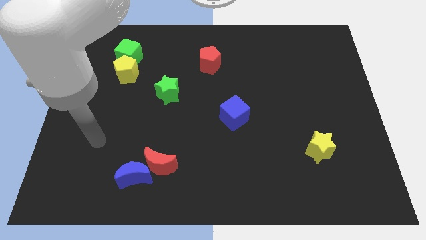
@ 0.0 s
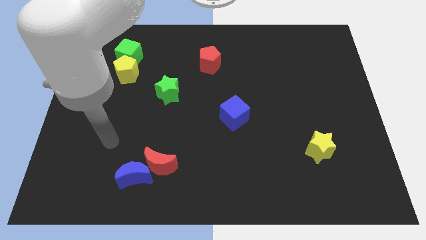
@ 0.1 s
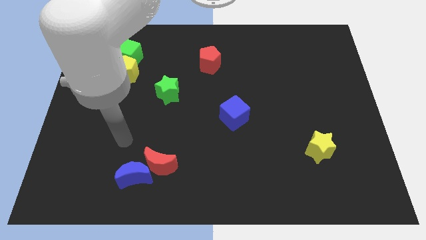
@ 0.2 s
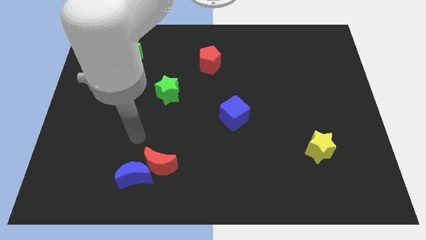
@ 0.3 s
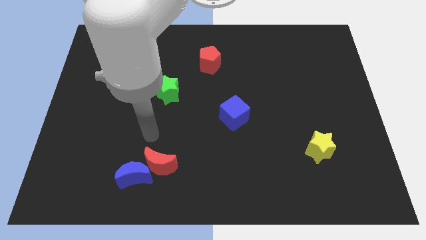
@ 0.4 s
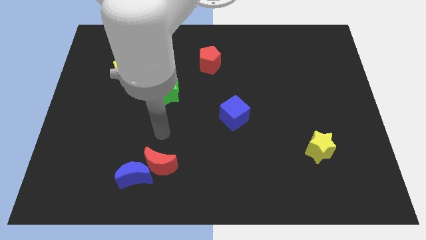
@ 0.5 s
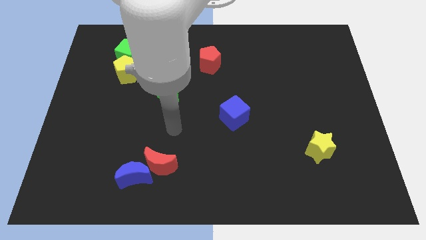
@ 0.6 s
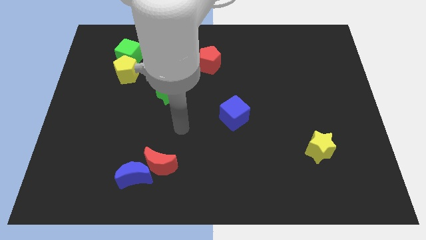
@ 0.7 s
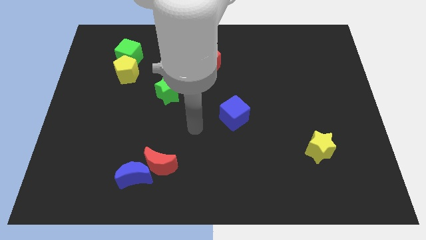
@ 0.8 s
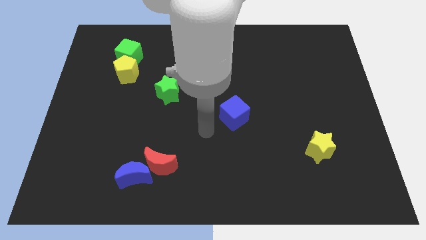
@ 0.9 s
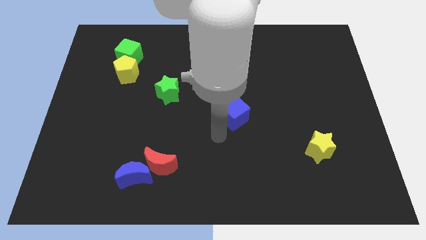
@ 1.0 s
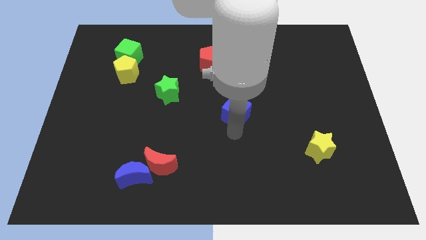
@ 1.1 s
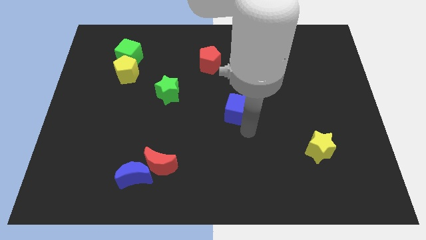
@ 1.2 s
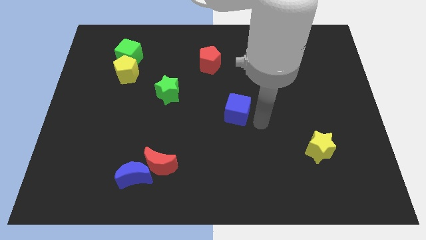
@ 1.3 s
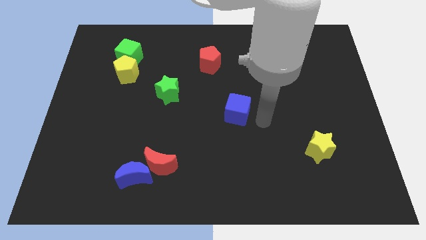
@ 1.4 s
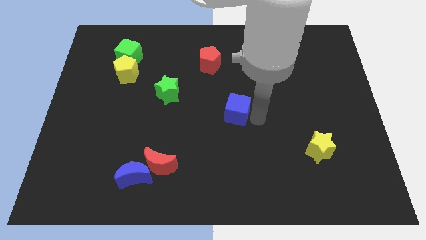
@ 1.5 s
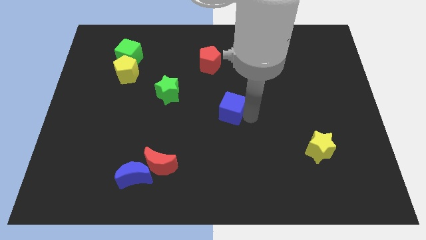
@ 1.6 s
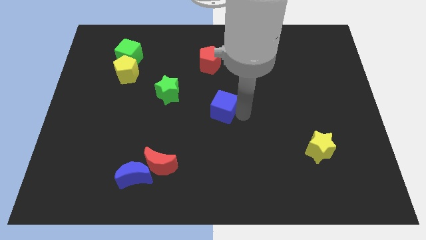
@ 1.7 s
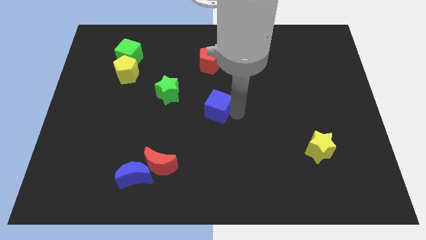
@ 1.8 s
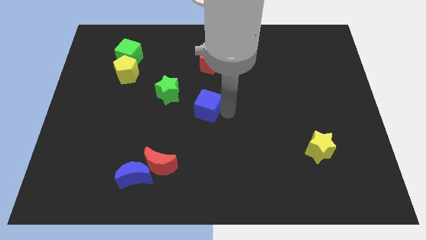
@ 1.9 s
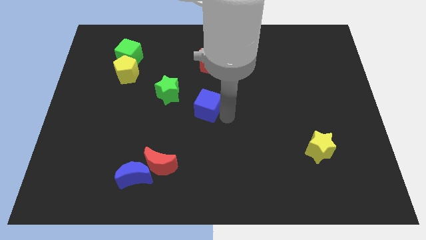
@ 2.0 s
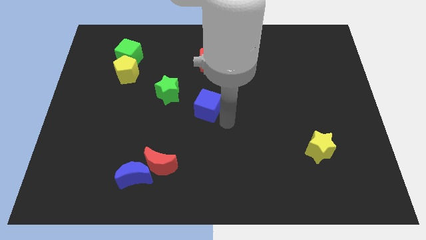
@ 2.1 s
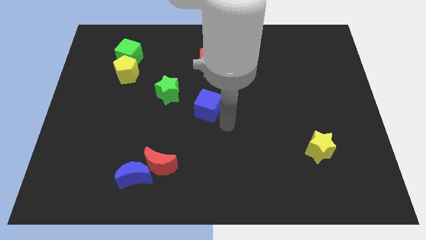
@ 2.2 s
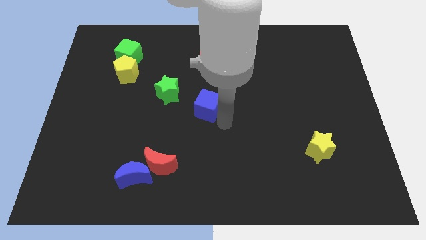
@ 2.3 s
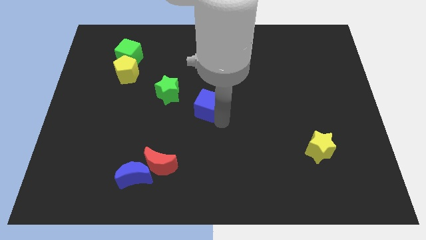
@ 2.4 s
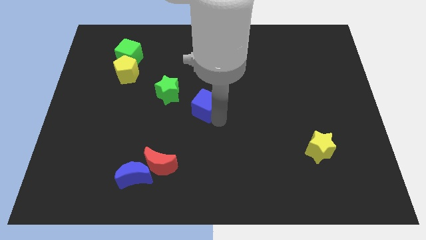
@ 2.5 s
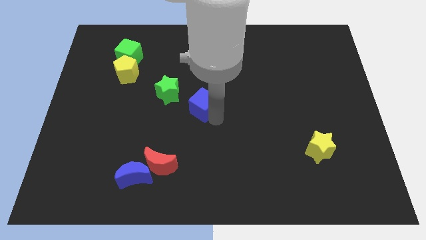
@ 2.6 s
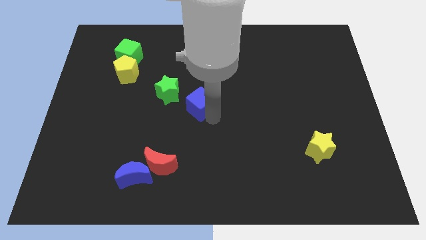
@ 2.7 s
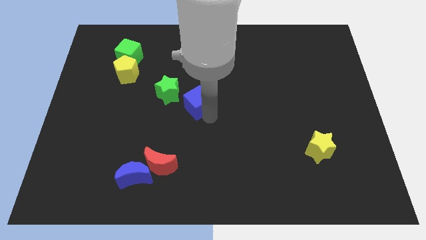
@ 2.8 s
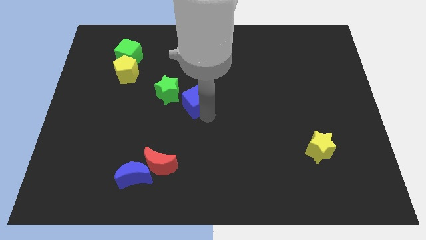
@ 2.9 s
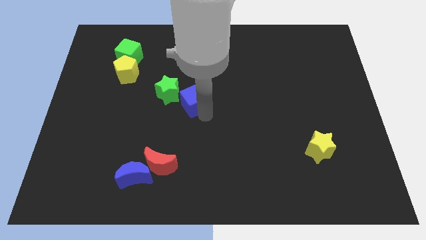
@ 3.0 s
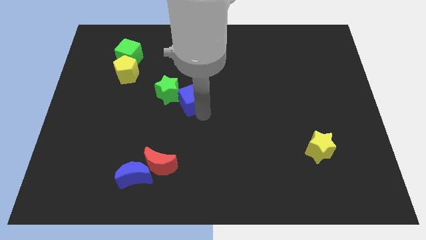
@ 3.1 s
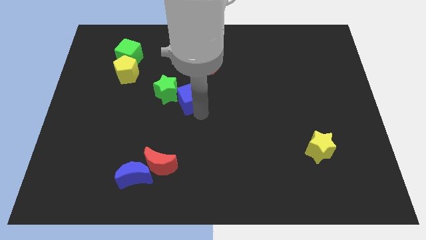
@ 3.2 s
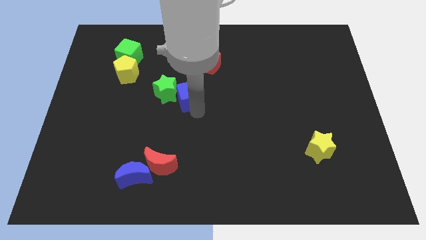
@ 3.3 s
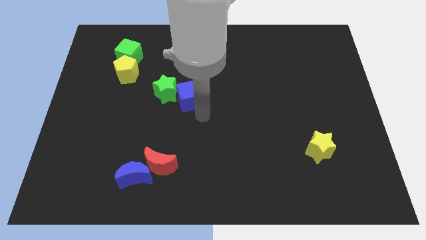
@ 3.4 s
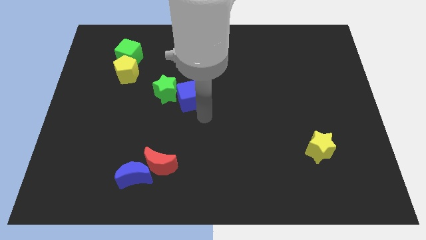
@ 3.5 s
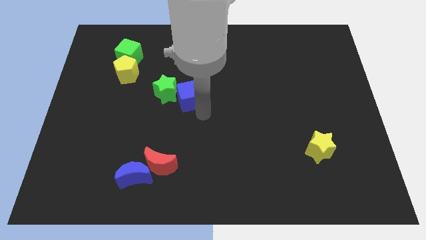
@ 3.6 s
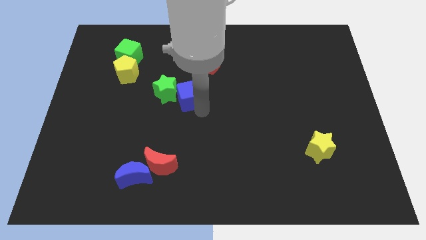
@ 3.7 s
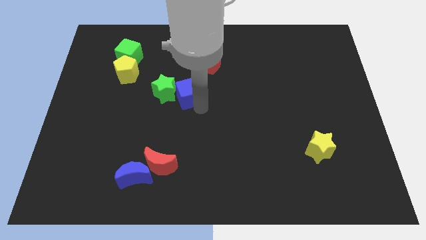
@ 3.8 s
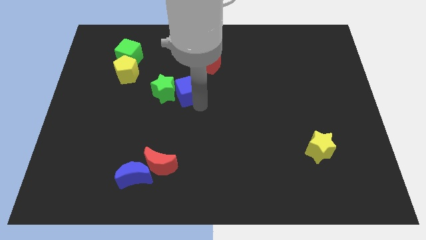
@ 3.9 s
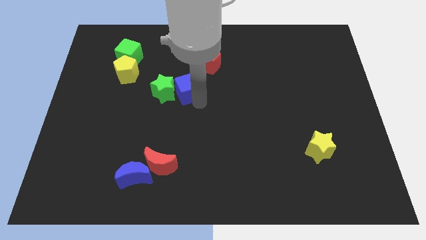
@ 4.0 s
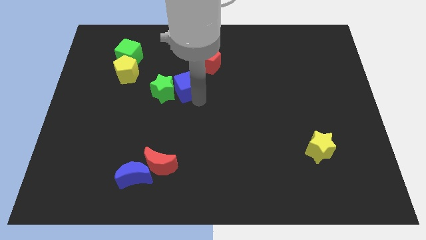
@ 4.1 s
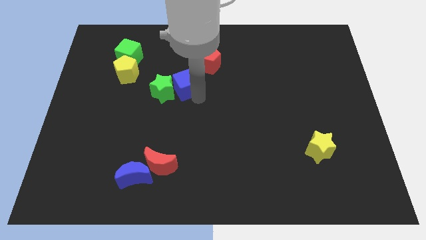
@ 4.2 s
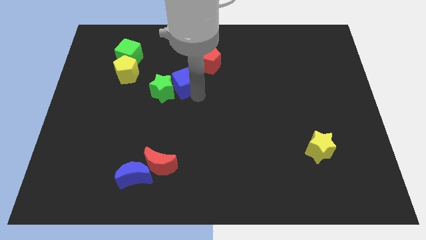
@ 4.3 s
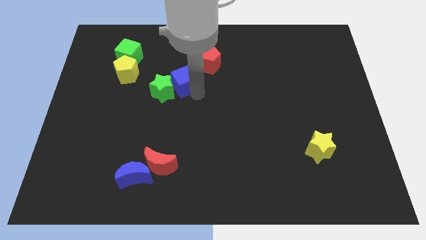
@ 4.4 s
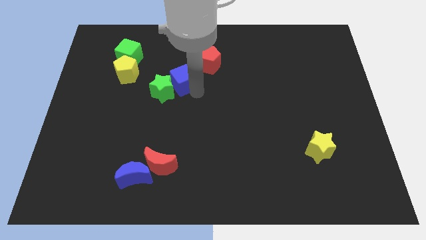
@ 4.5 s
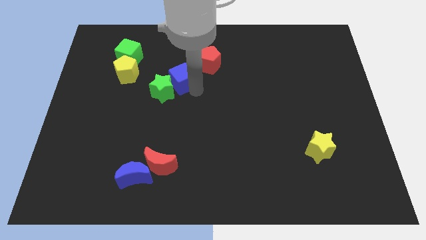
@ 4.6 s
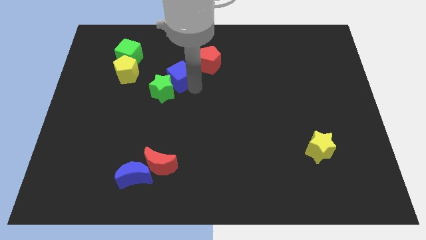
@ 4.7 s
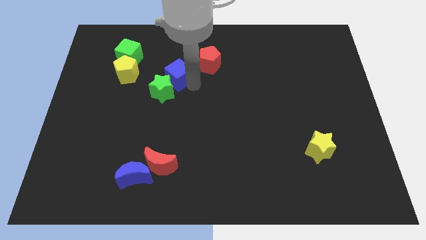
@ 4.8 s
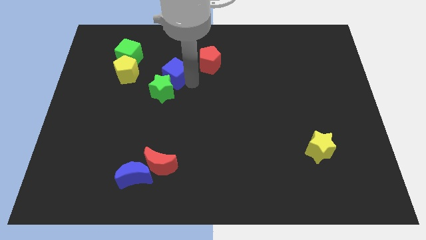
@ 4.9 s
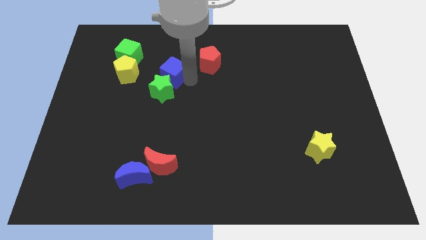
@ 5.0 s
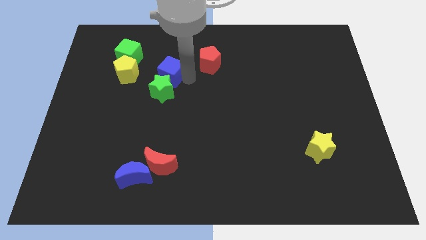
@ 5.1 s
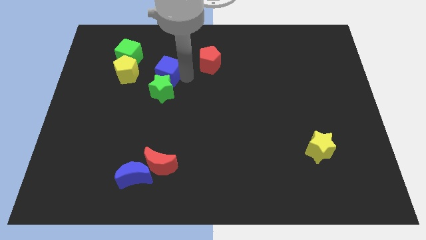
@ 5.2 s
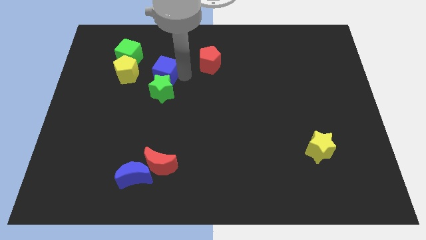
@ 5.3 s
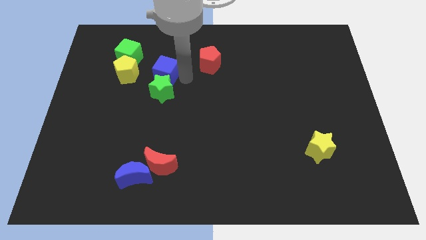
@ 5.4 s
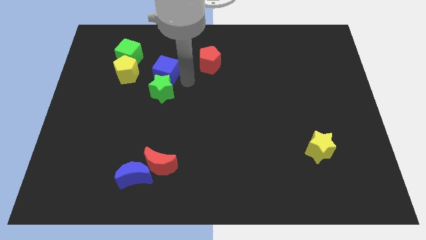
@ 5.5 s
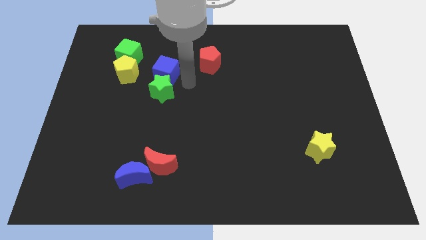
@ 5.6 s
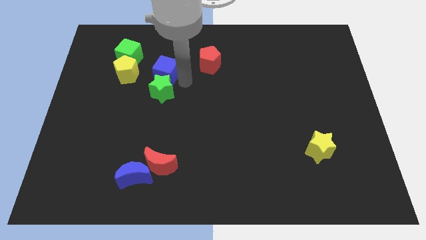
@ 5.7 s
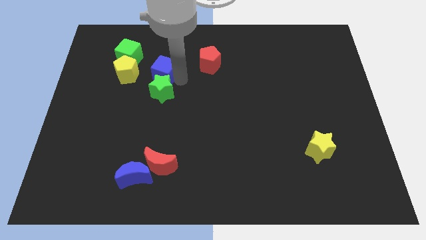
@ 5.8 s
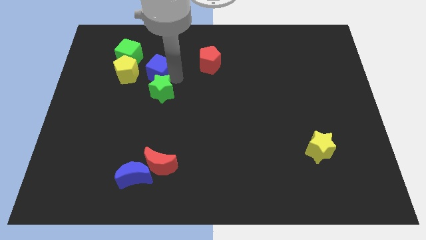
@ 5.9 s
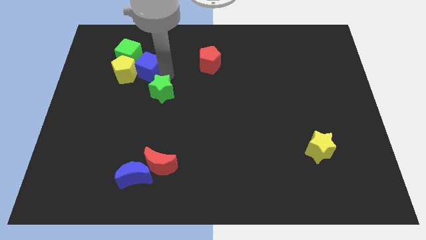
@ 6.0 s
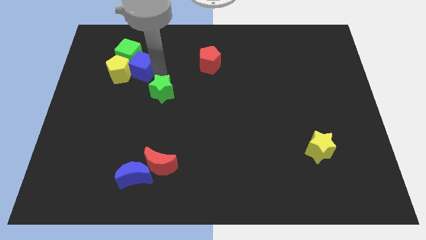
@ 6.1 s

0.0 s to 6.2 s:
move the blue cube next to the green cube

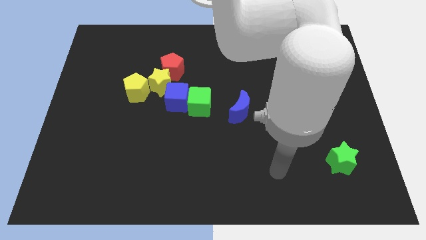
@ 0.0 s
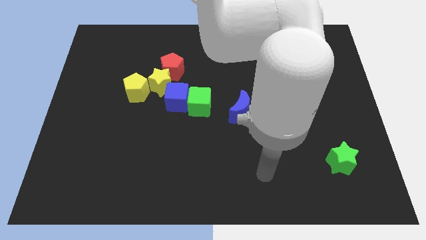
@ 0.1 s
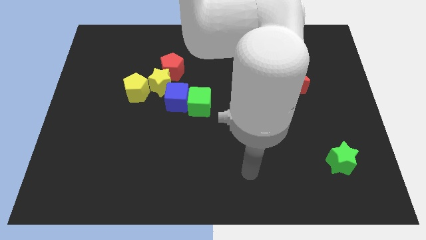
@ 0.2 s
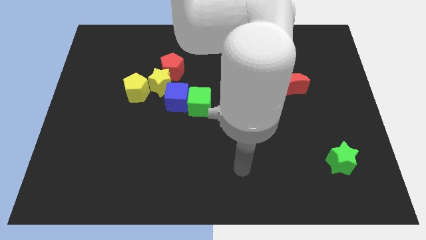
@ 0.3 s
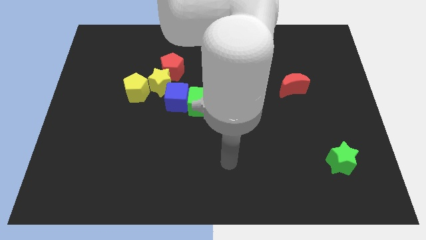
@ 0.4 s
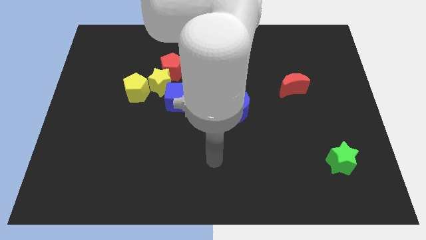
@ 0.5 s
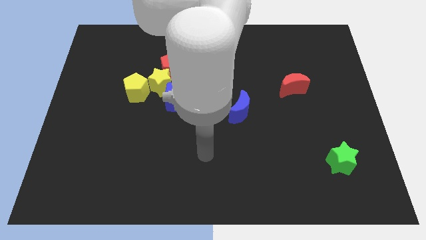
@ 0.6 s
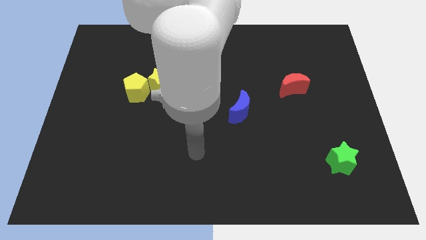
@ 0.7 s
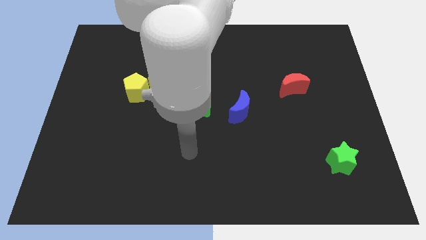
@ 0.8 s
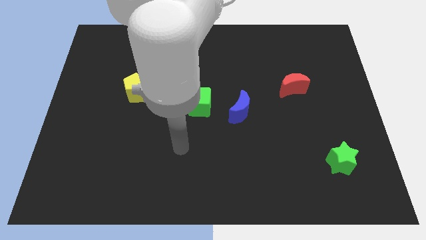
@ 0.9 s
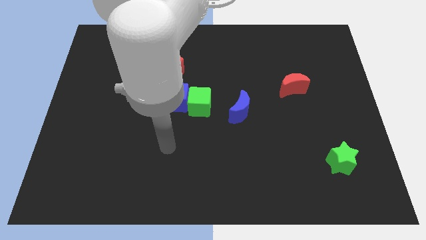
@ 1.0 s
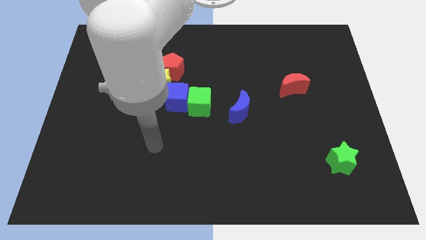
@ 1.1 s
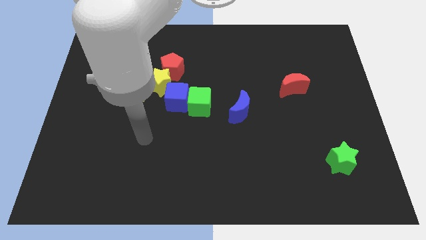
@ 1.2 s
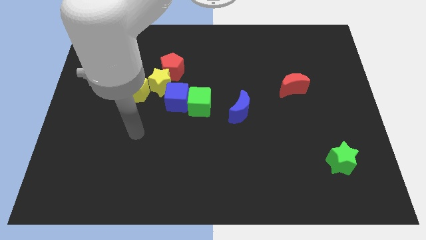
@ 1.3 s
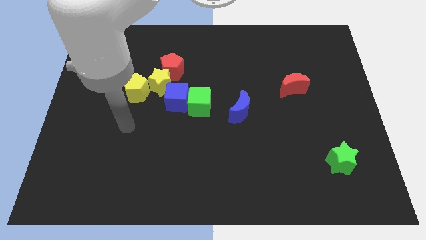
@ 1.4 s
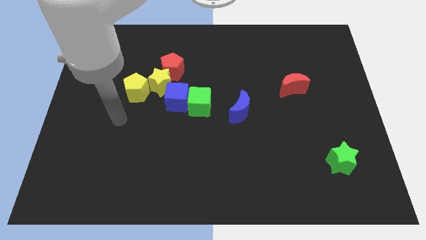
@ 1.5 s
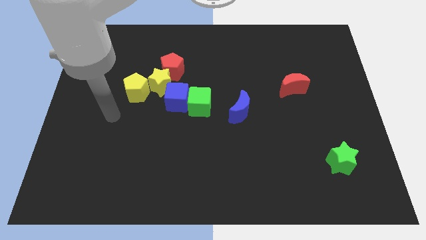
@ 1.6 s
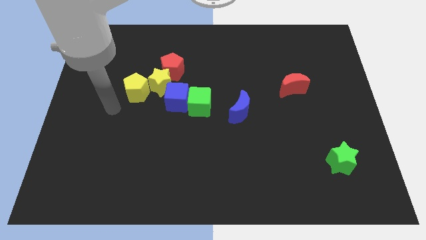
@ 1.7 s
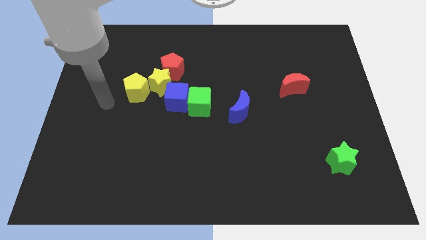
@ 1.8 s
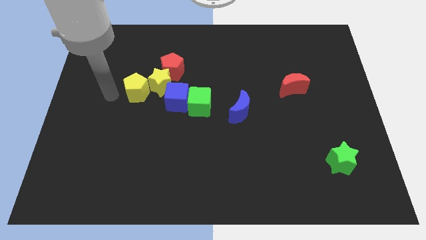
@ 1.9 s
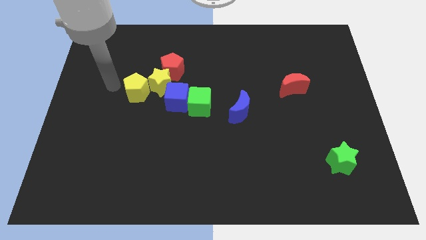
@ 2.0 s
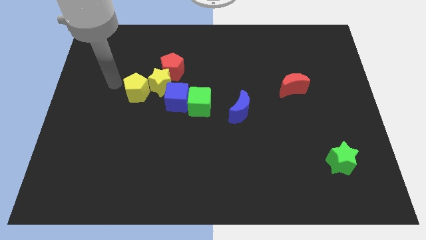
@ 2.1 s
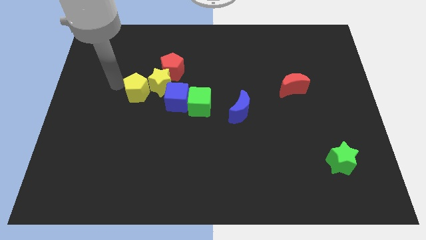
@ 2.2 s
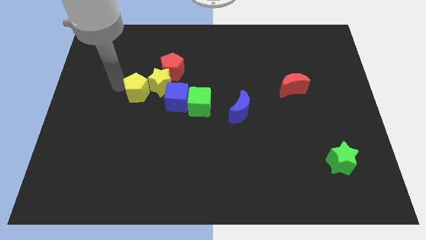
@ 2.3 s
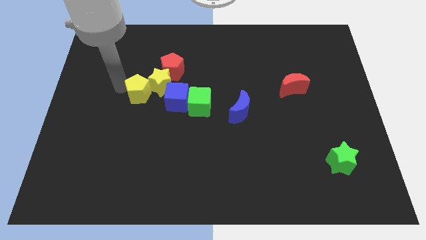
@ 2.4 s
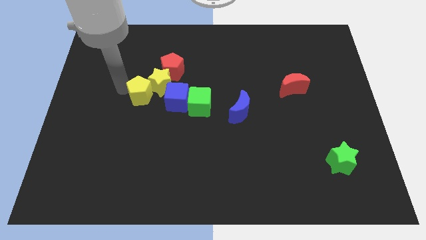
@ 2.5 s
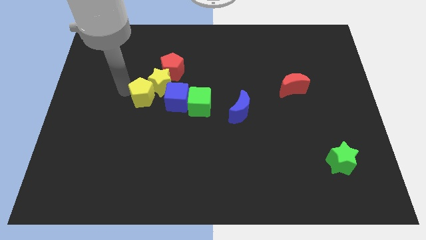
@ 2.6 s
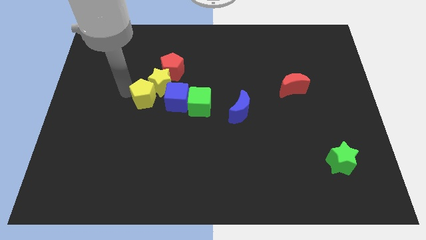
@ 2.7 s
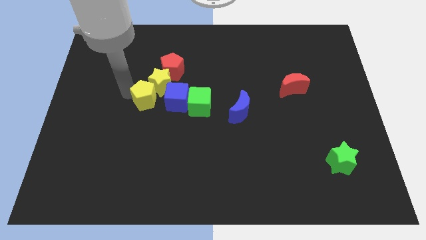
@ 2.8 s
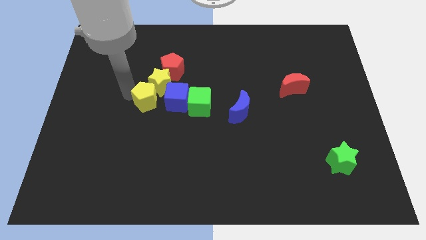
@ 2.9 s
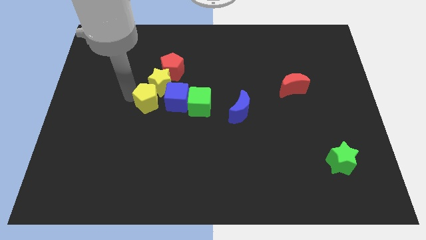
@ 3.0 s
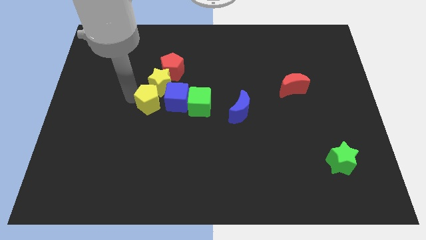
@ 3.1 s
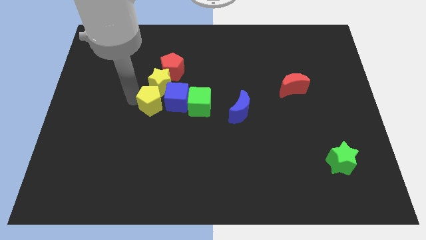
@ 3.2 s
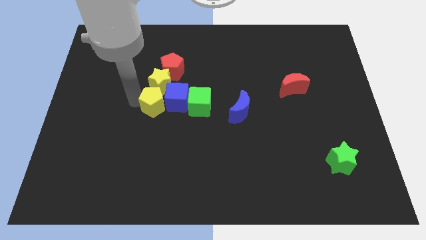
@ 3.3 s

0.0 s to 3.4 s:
put the yellow pentagon towards the blue cube
